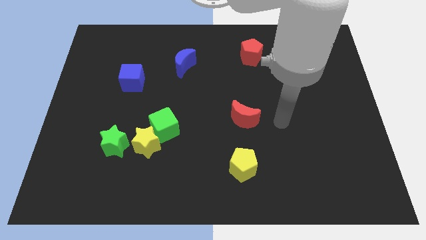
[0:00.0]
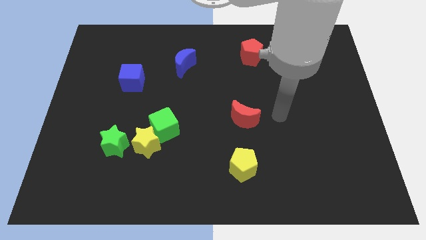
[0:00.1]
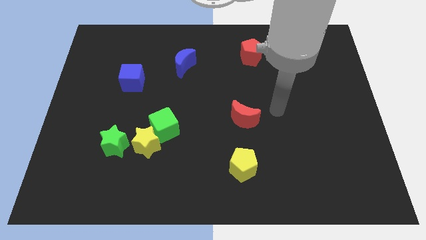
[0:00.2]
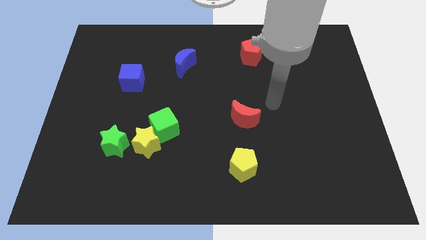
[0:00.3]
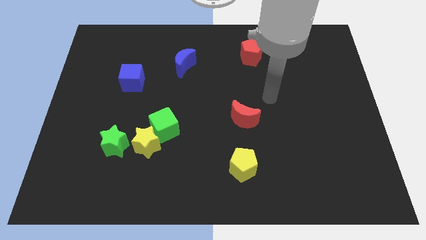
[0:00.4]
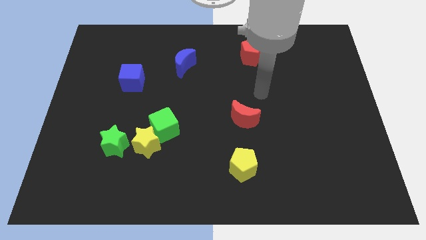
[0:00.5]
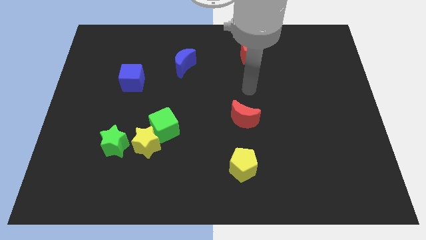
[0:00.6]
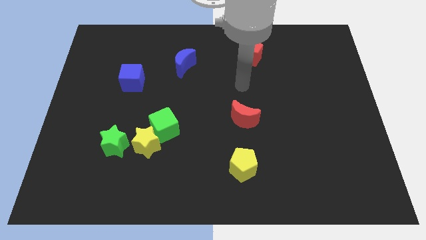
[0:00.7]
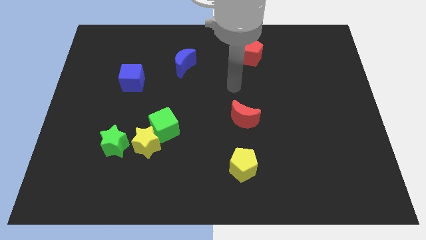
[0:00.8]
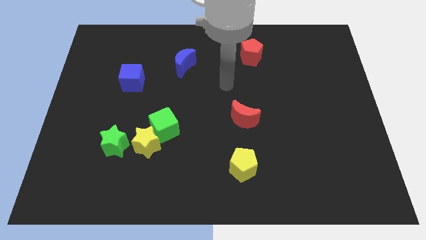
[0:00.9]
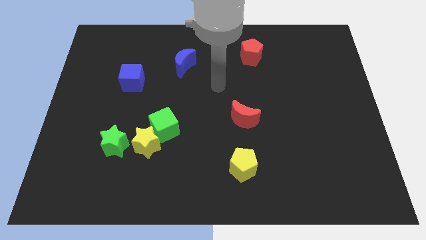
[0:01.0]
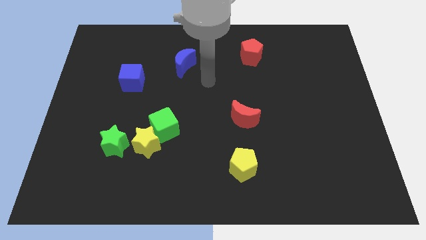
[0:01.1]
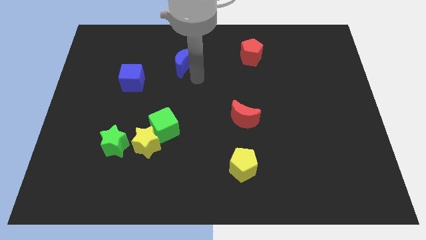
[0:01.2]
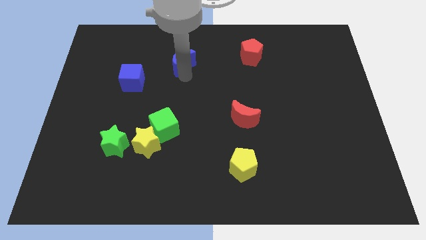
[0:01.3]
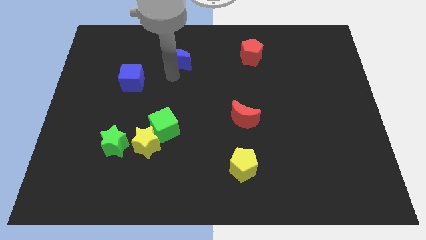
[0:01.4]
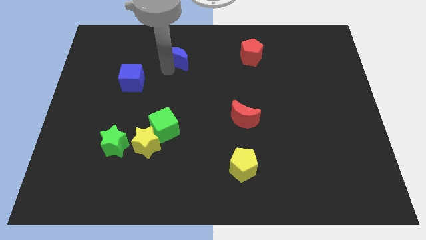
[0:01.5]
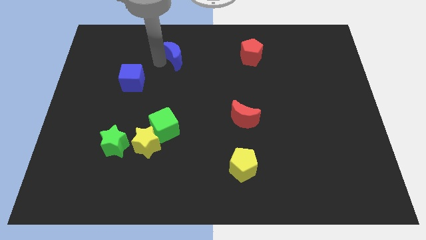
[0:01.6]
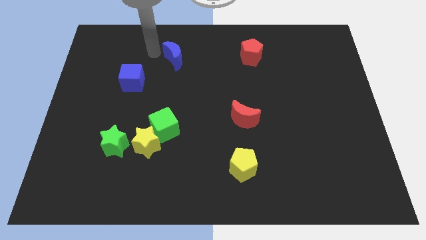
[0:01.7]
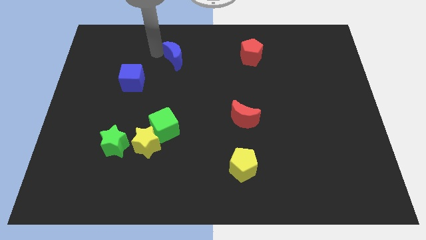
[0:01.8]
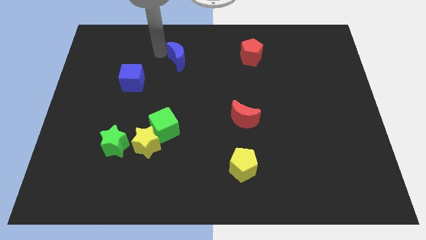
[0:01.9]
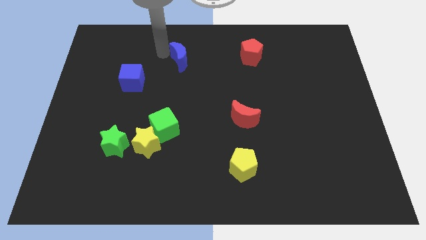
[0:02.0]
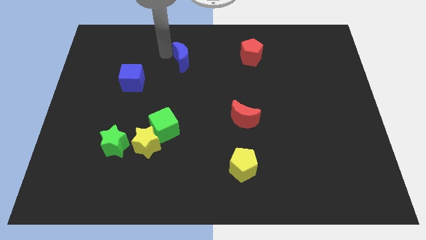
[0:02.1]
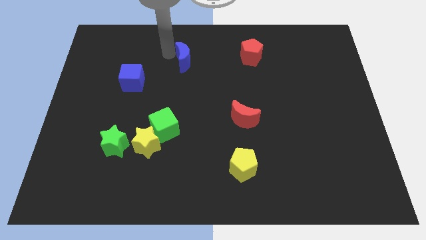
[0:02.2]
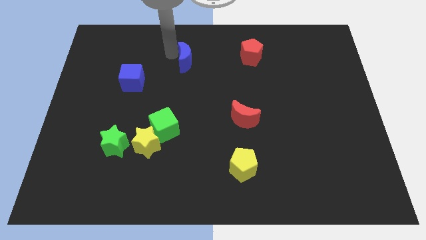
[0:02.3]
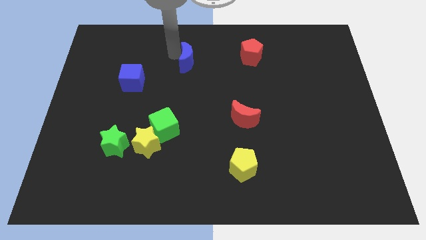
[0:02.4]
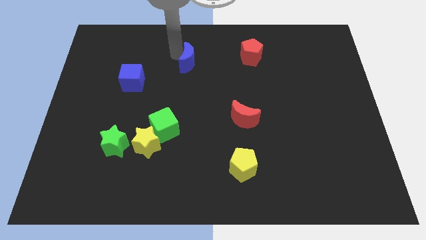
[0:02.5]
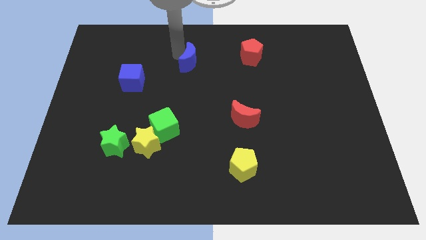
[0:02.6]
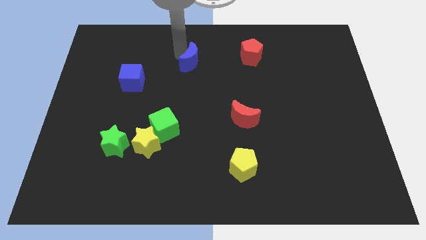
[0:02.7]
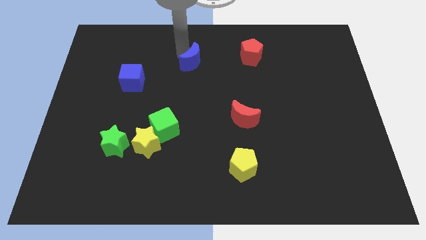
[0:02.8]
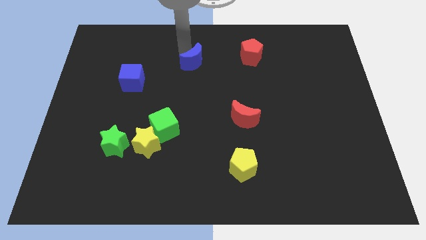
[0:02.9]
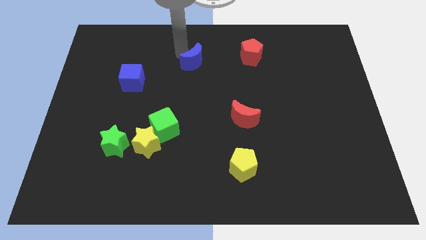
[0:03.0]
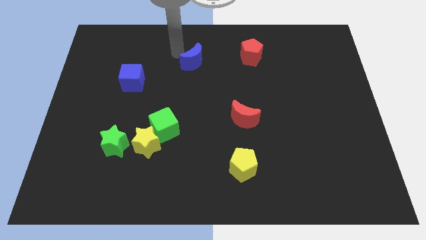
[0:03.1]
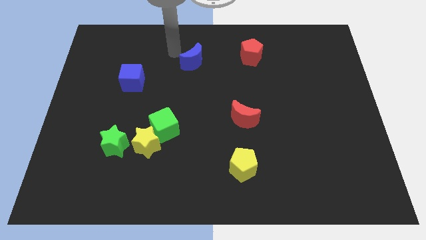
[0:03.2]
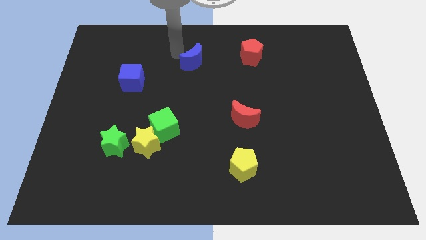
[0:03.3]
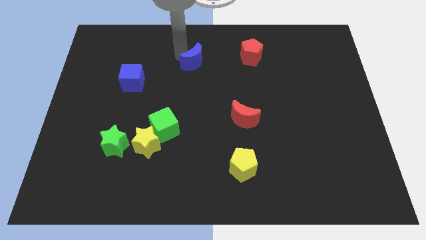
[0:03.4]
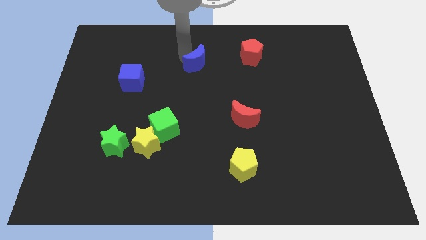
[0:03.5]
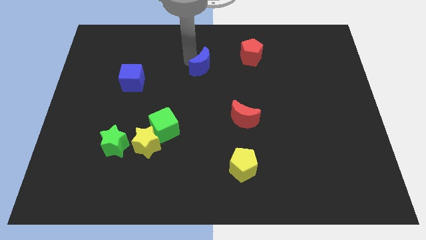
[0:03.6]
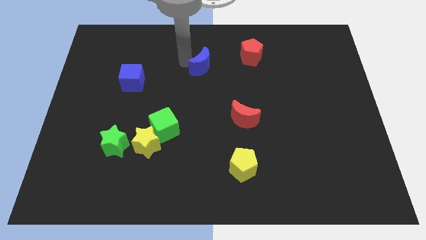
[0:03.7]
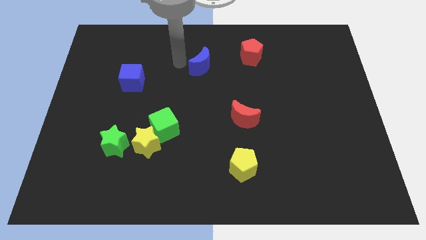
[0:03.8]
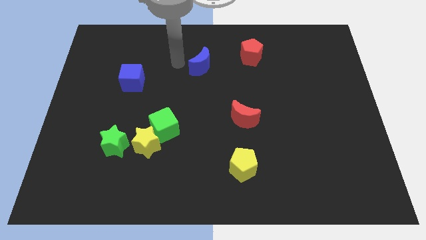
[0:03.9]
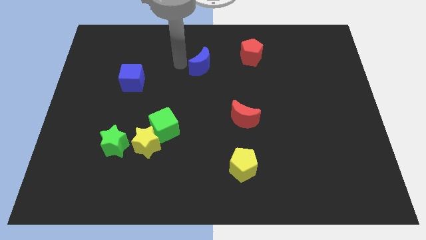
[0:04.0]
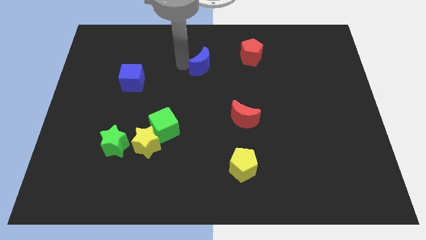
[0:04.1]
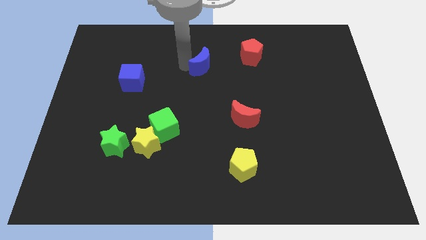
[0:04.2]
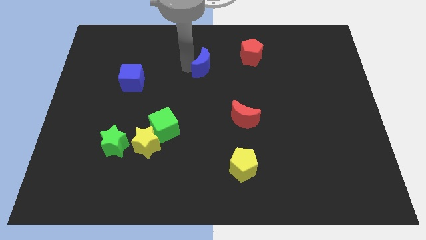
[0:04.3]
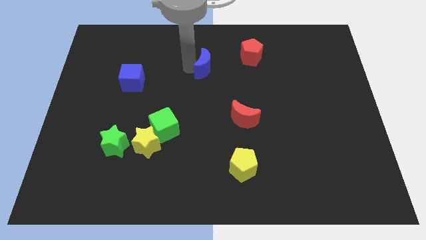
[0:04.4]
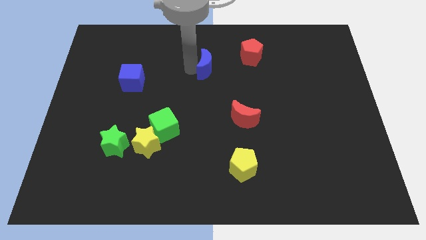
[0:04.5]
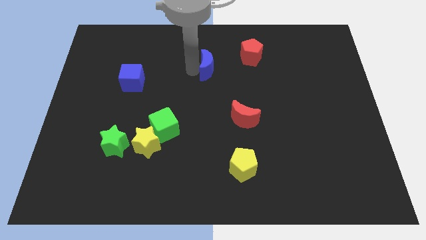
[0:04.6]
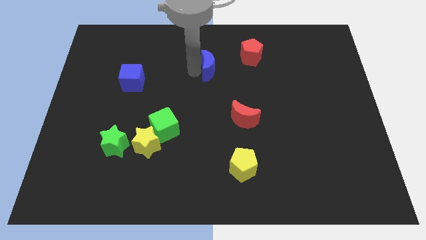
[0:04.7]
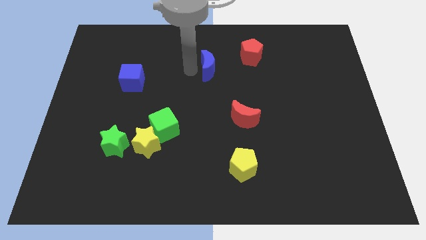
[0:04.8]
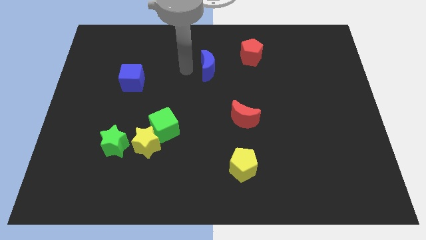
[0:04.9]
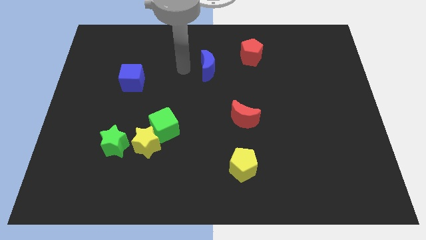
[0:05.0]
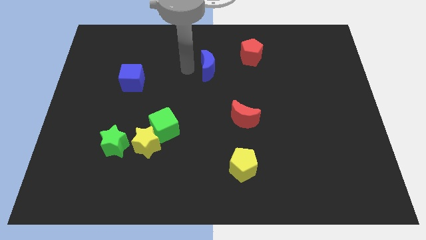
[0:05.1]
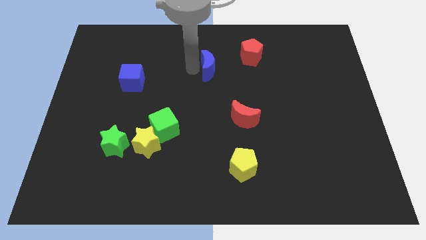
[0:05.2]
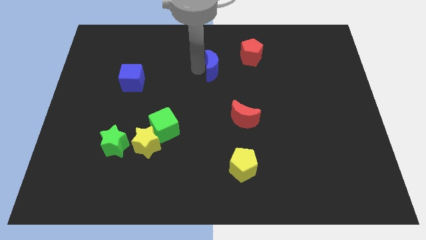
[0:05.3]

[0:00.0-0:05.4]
move the blue moon a bit to the right

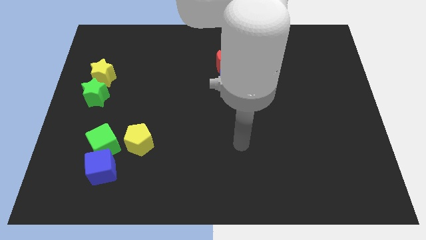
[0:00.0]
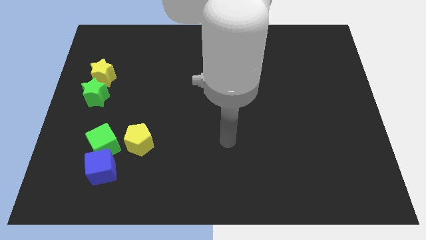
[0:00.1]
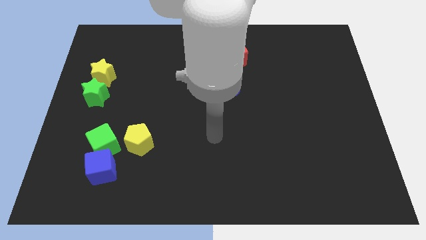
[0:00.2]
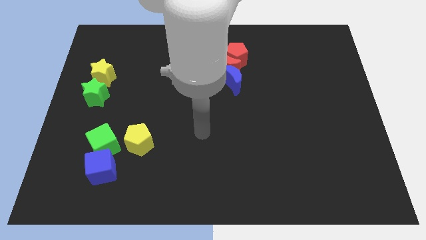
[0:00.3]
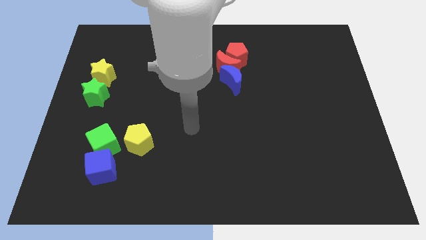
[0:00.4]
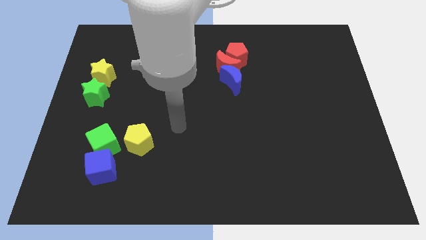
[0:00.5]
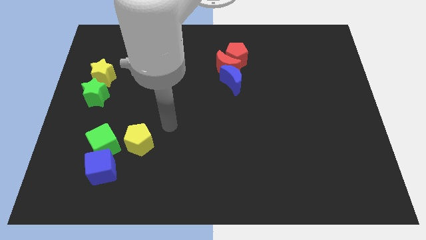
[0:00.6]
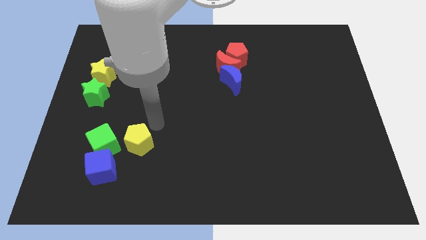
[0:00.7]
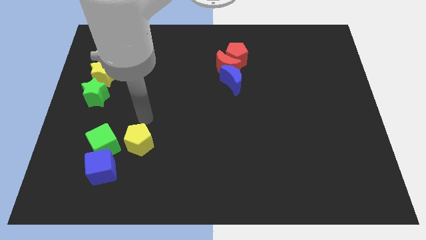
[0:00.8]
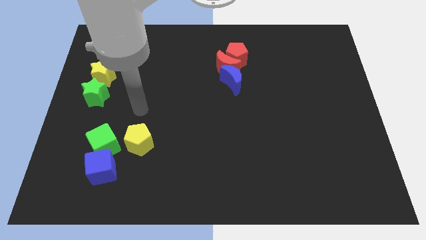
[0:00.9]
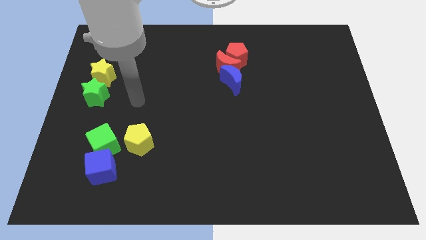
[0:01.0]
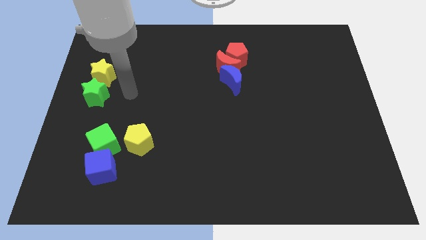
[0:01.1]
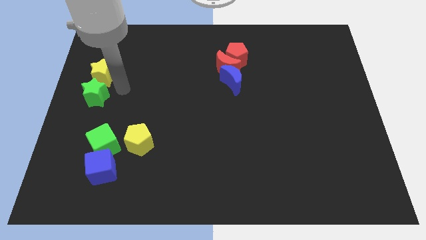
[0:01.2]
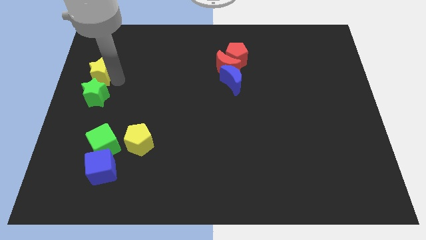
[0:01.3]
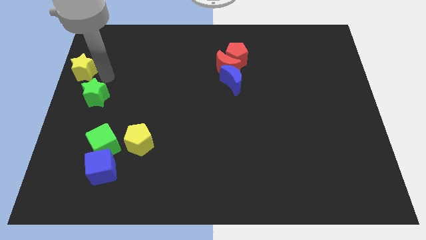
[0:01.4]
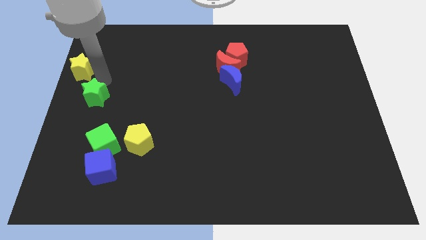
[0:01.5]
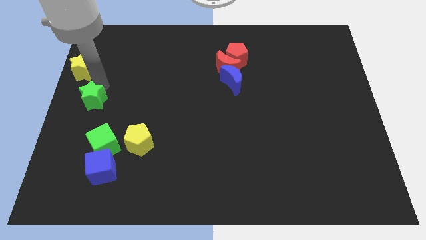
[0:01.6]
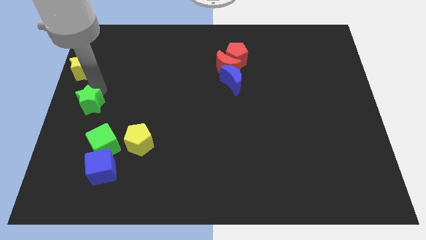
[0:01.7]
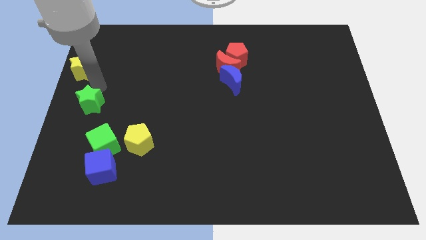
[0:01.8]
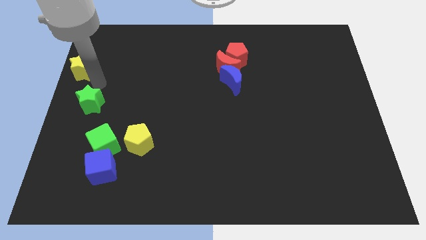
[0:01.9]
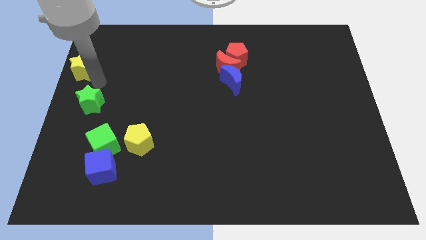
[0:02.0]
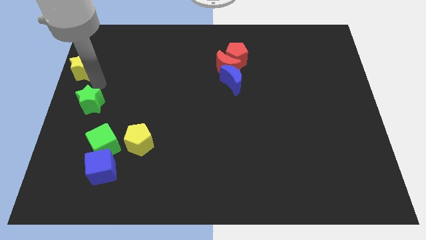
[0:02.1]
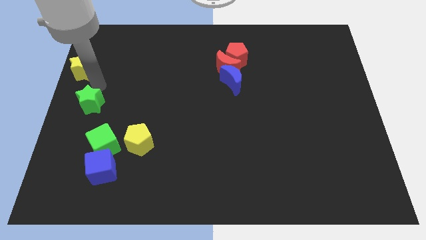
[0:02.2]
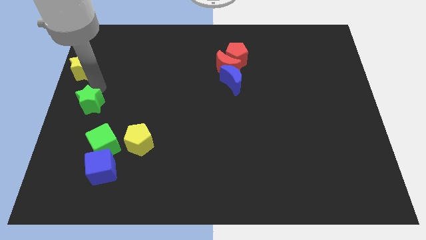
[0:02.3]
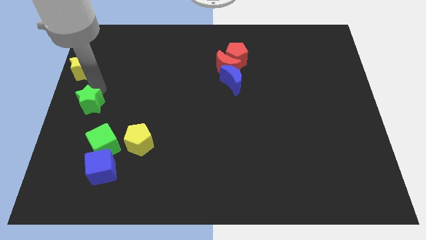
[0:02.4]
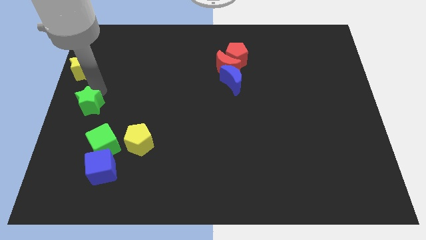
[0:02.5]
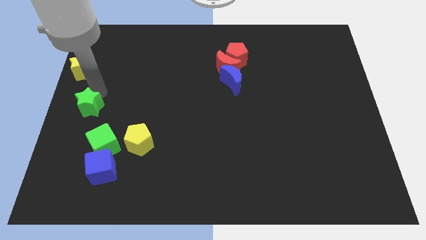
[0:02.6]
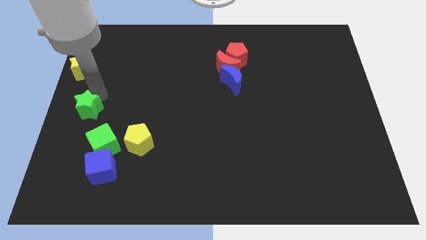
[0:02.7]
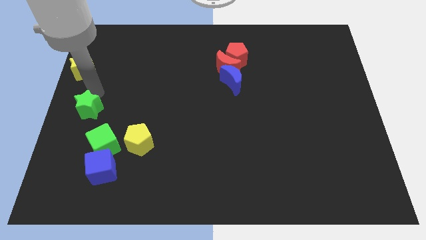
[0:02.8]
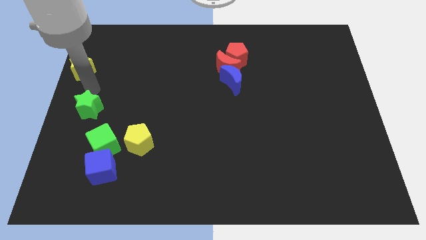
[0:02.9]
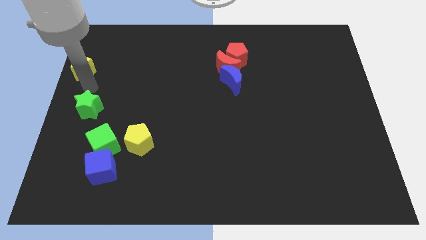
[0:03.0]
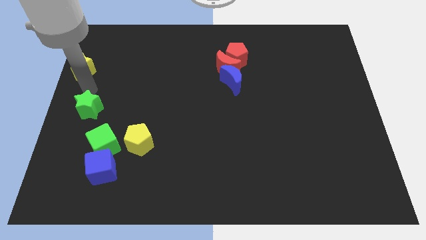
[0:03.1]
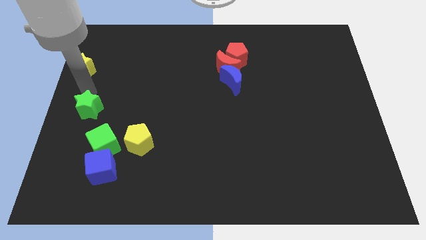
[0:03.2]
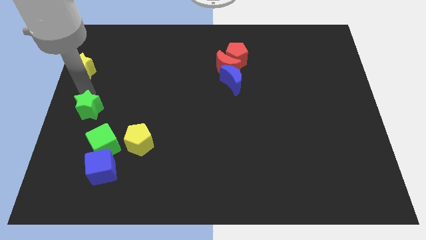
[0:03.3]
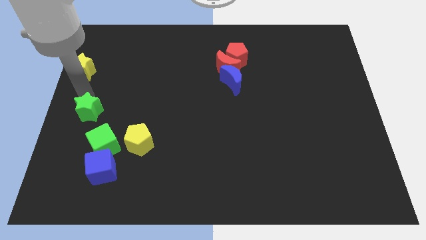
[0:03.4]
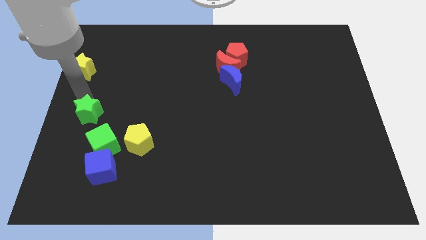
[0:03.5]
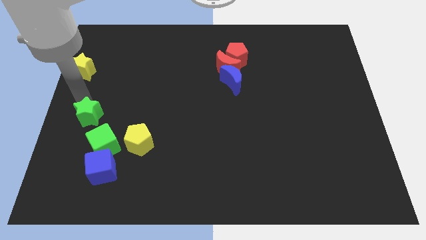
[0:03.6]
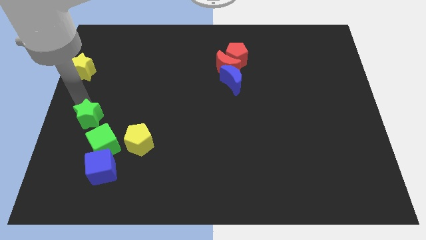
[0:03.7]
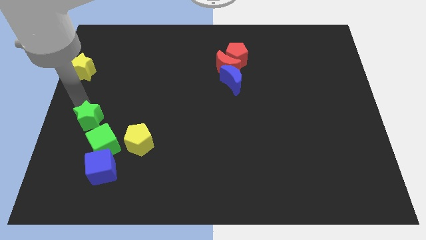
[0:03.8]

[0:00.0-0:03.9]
move the green star downwards a little
